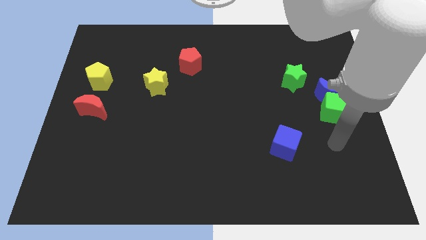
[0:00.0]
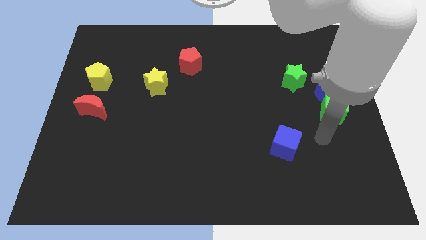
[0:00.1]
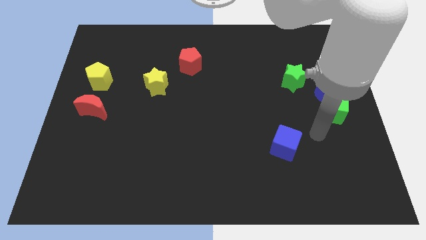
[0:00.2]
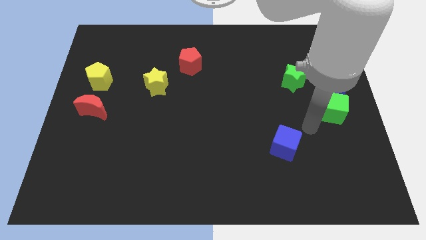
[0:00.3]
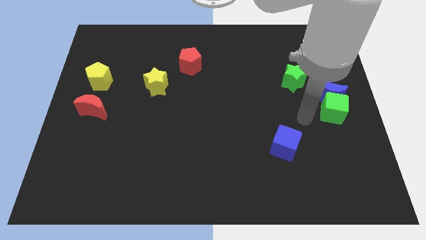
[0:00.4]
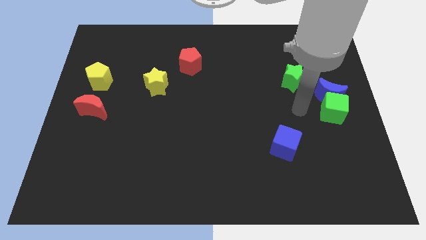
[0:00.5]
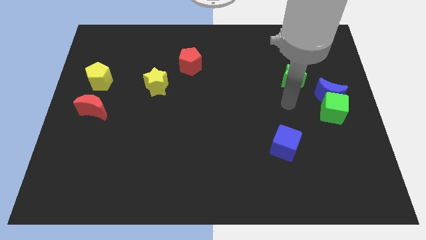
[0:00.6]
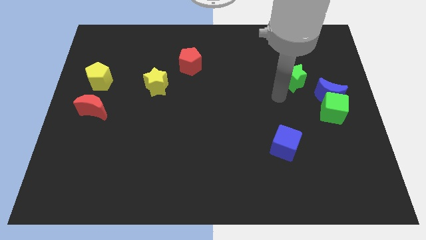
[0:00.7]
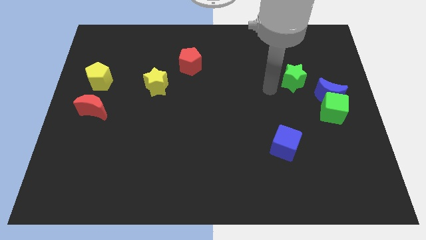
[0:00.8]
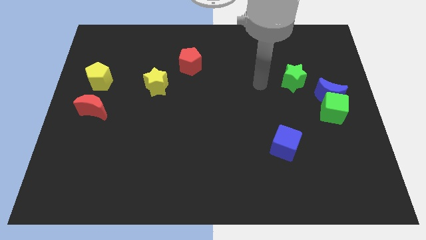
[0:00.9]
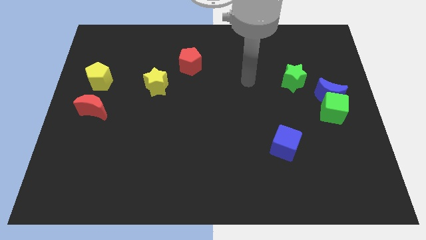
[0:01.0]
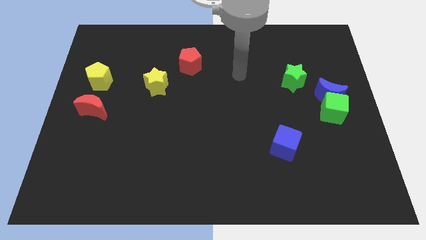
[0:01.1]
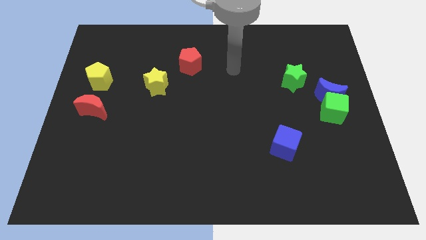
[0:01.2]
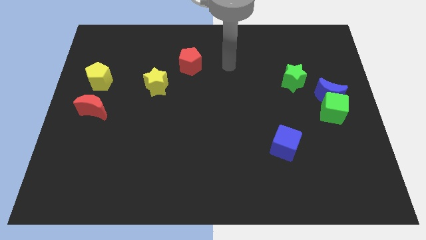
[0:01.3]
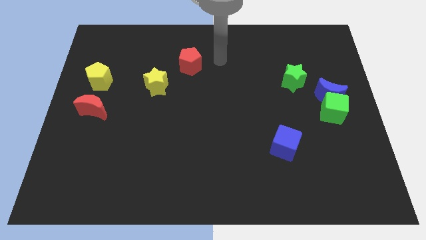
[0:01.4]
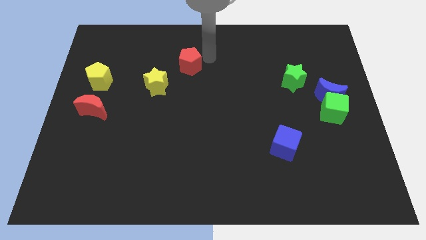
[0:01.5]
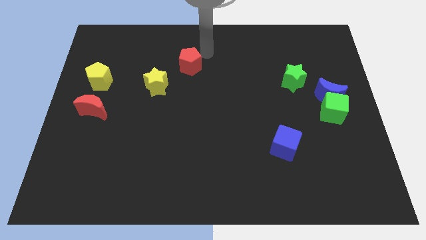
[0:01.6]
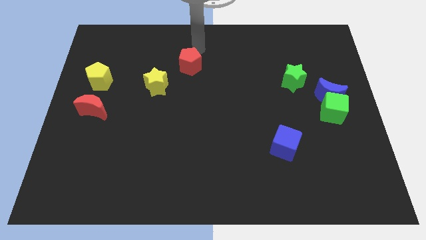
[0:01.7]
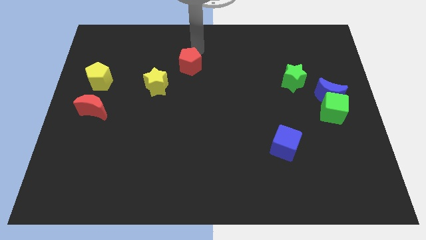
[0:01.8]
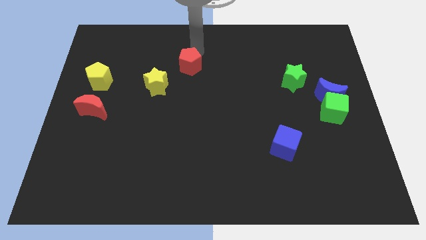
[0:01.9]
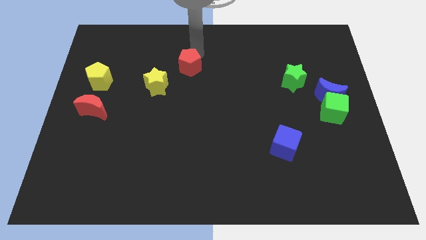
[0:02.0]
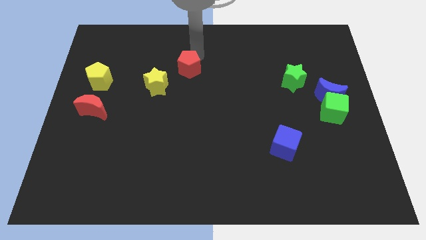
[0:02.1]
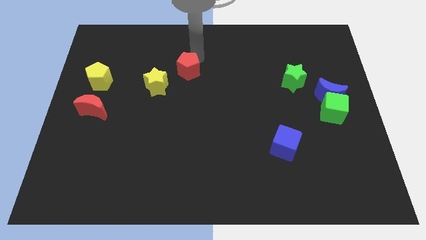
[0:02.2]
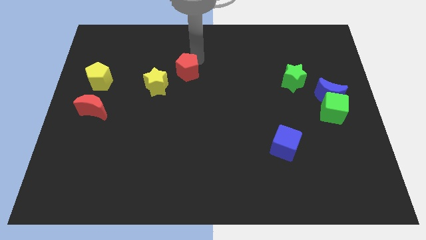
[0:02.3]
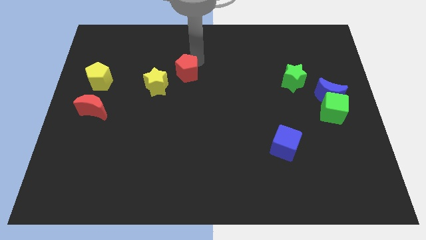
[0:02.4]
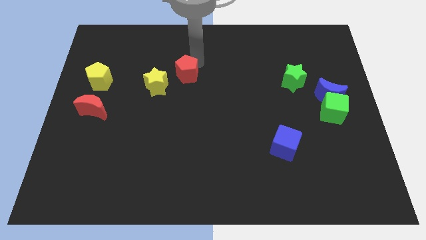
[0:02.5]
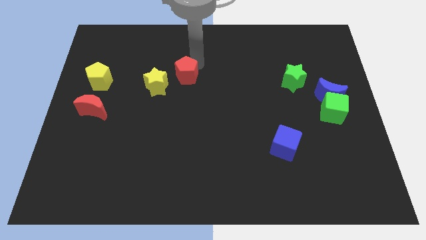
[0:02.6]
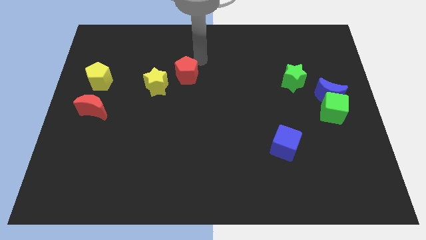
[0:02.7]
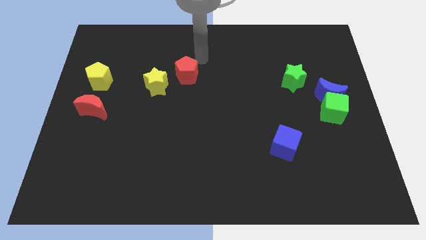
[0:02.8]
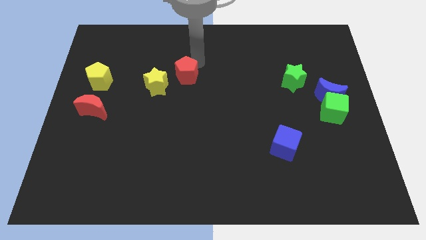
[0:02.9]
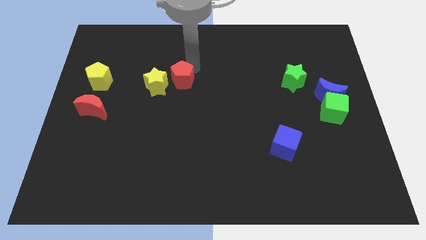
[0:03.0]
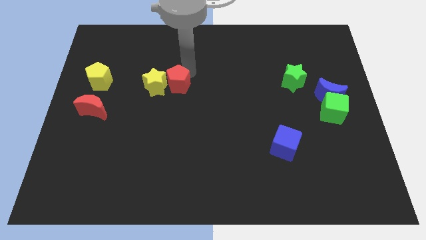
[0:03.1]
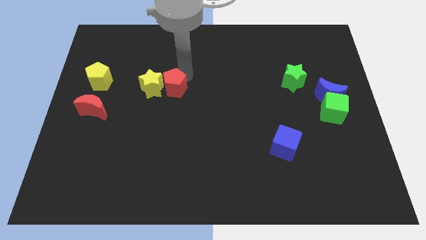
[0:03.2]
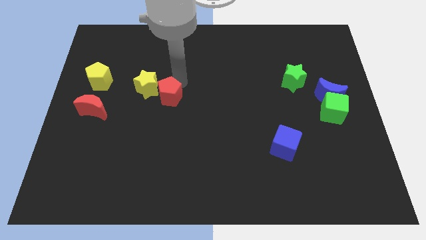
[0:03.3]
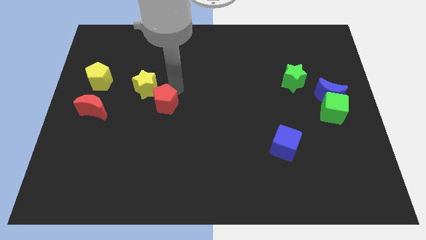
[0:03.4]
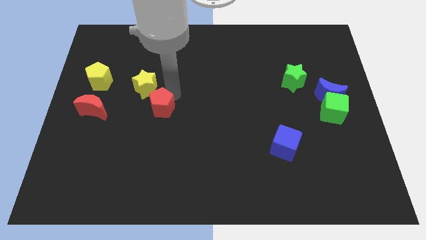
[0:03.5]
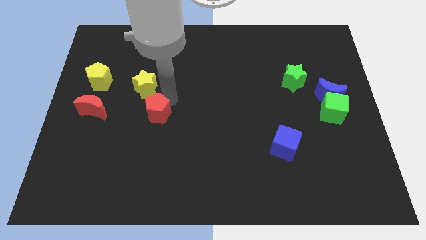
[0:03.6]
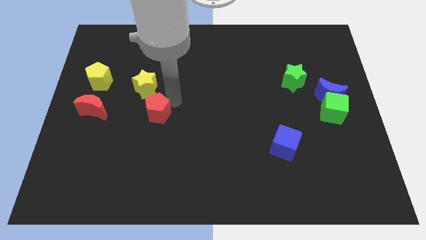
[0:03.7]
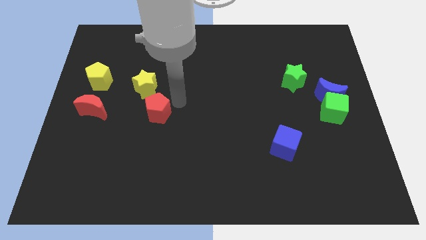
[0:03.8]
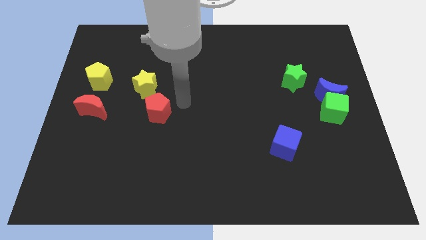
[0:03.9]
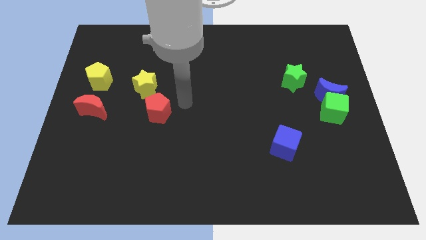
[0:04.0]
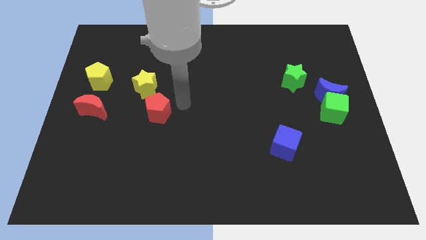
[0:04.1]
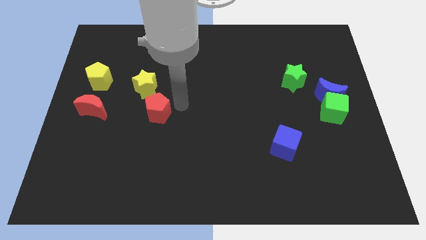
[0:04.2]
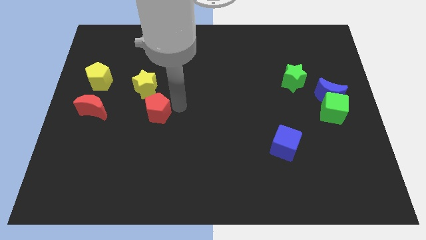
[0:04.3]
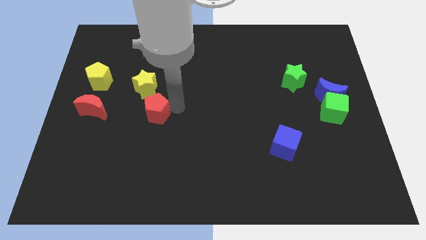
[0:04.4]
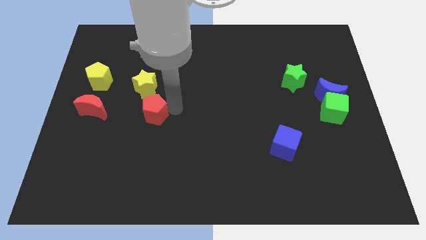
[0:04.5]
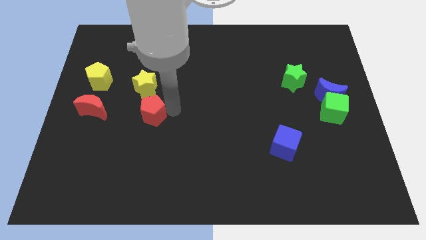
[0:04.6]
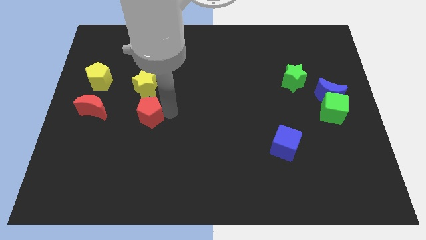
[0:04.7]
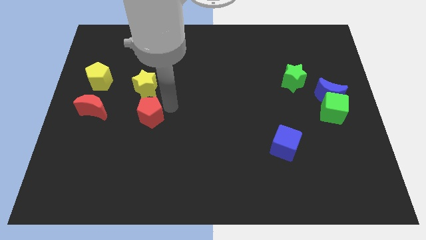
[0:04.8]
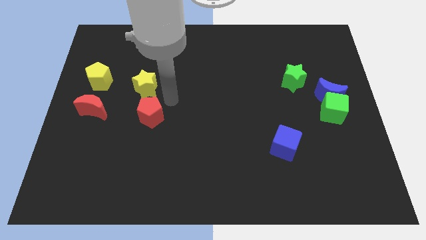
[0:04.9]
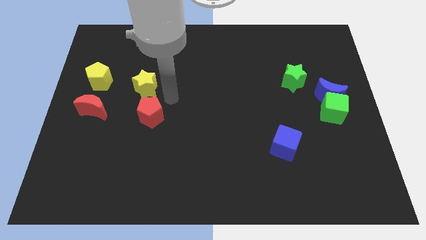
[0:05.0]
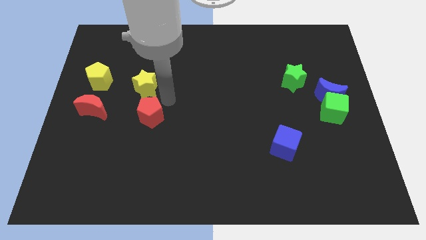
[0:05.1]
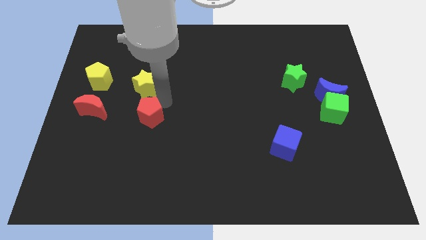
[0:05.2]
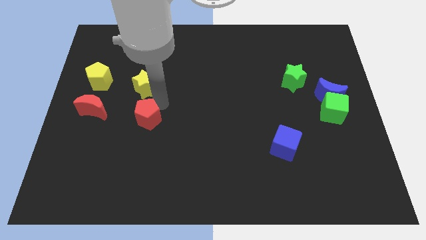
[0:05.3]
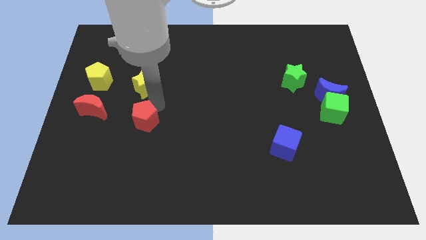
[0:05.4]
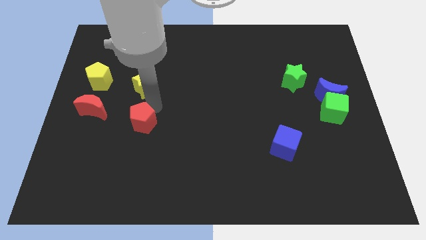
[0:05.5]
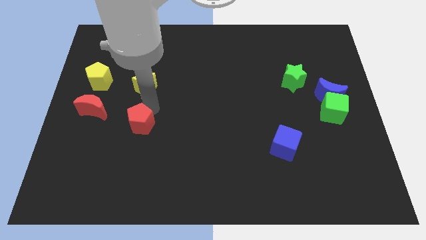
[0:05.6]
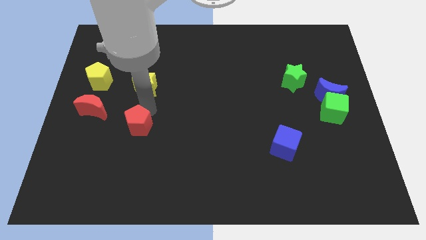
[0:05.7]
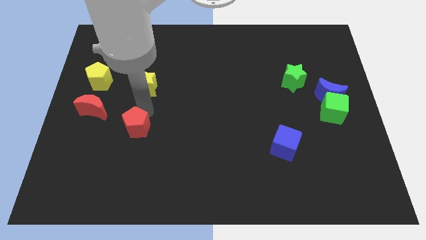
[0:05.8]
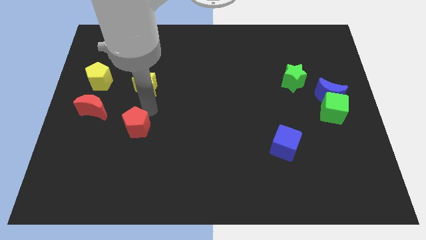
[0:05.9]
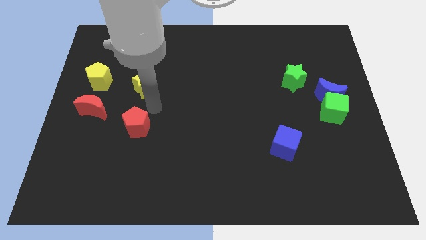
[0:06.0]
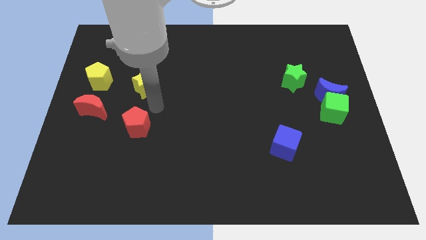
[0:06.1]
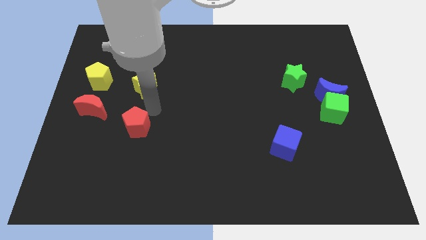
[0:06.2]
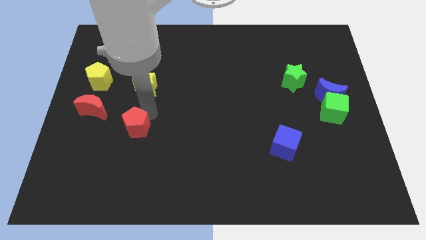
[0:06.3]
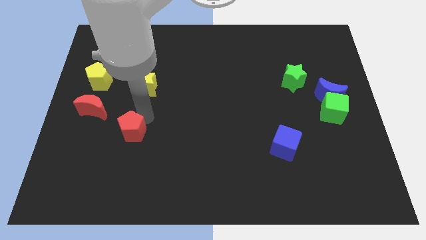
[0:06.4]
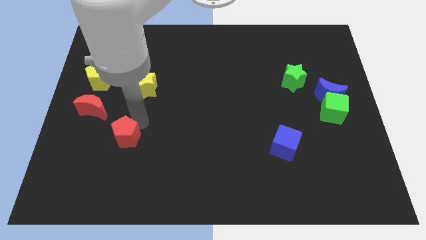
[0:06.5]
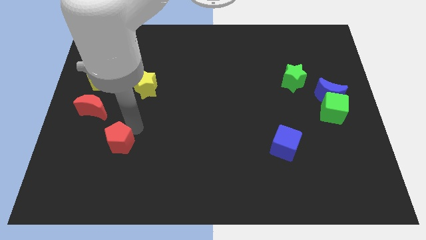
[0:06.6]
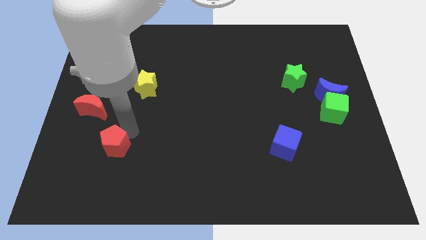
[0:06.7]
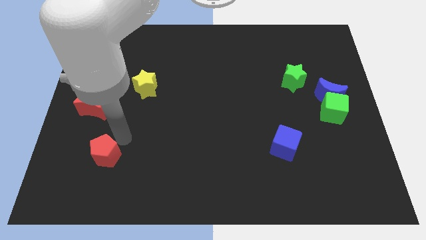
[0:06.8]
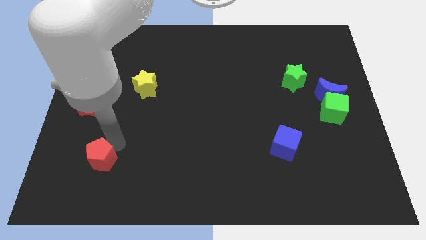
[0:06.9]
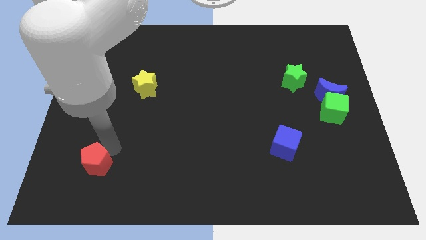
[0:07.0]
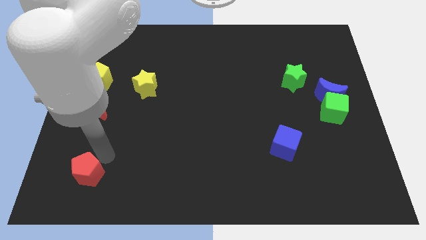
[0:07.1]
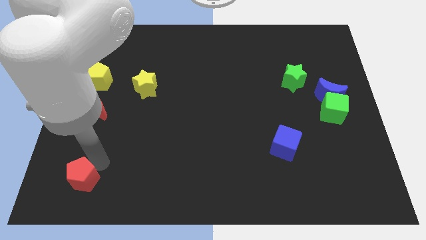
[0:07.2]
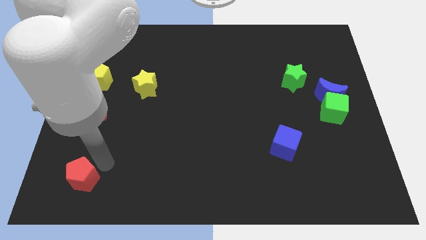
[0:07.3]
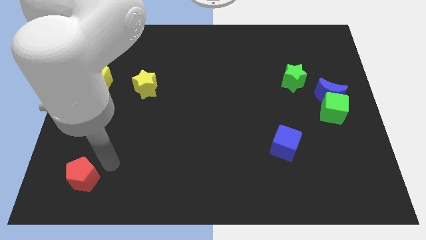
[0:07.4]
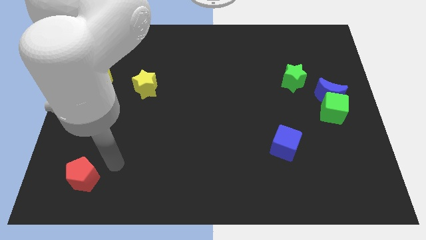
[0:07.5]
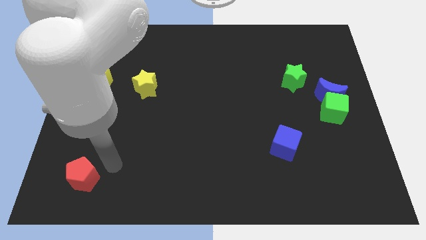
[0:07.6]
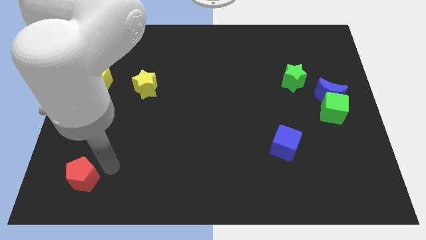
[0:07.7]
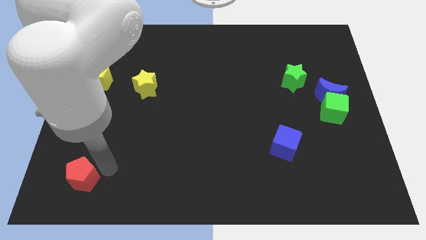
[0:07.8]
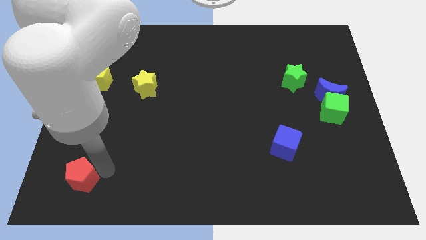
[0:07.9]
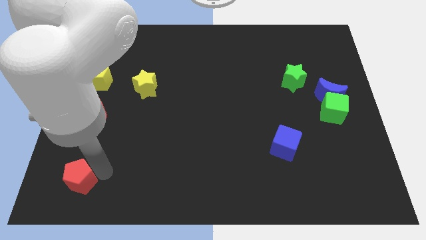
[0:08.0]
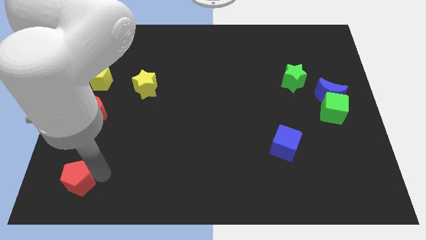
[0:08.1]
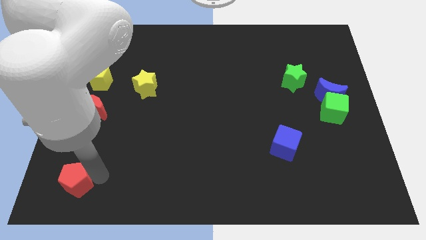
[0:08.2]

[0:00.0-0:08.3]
put the red pentagon to the bottom left
